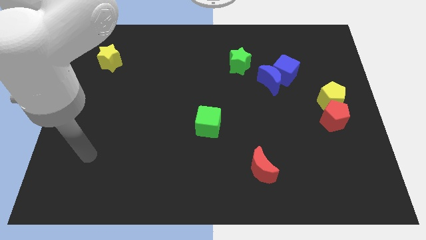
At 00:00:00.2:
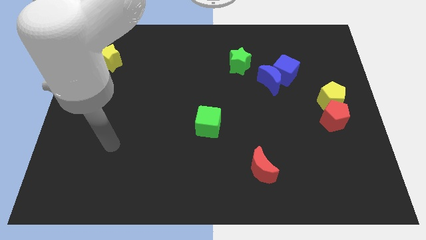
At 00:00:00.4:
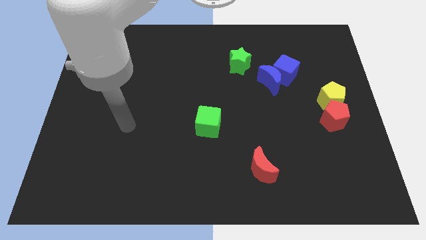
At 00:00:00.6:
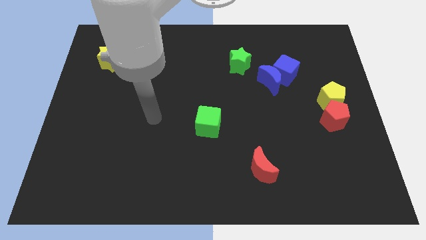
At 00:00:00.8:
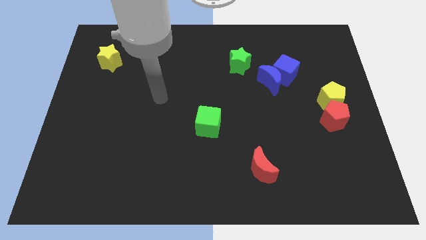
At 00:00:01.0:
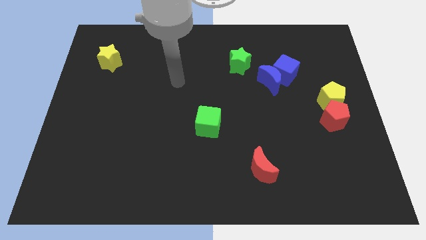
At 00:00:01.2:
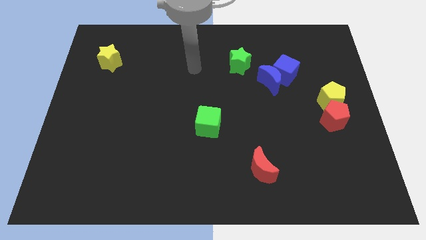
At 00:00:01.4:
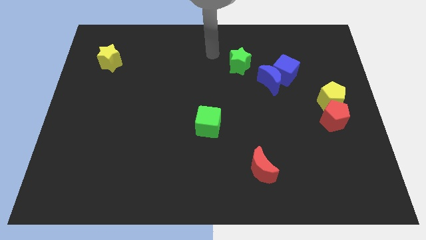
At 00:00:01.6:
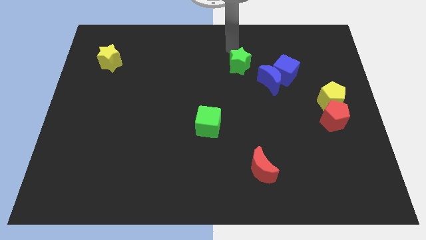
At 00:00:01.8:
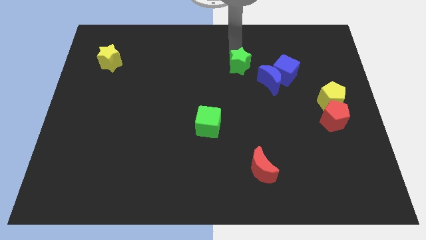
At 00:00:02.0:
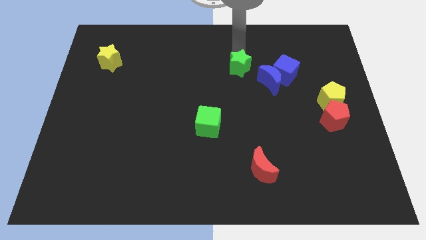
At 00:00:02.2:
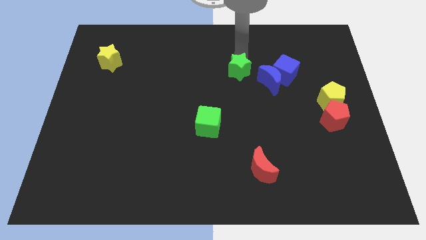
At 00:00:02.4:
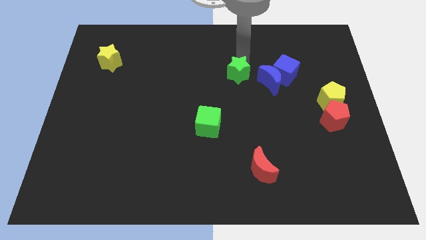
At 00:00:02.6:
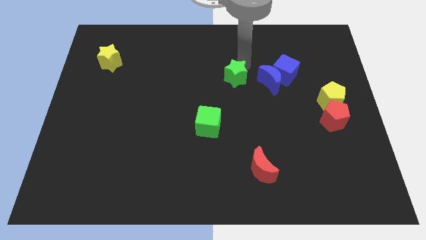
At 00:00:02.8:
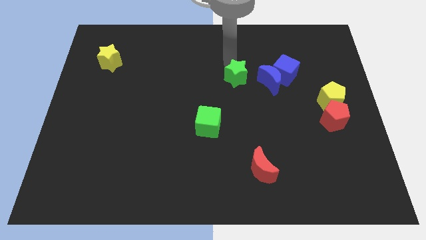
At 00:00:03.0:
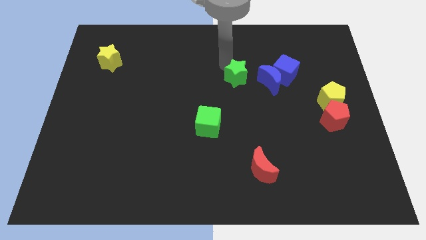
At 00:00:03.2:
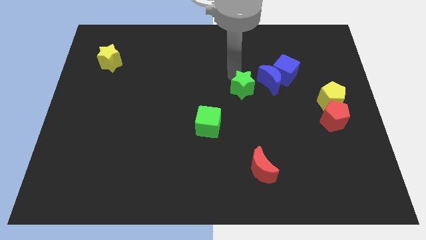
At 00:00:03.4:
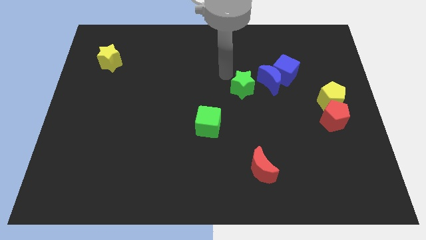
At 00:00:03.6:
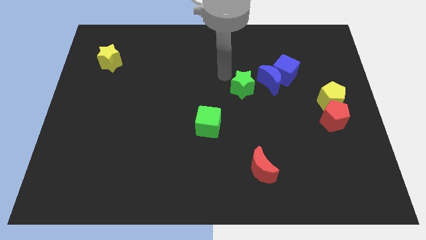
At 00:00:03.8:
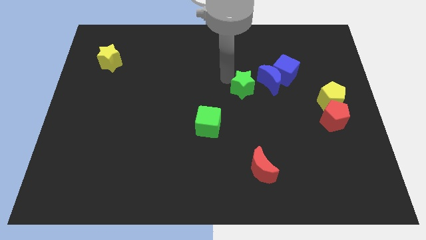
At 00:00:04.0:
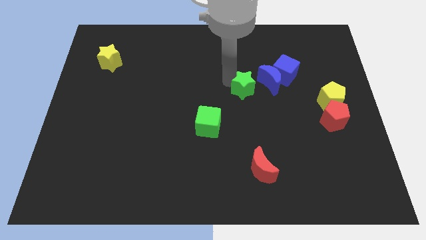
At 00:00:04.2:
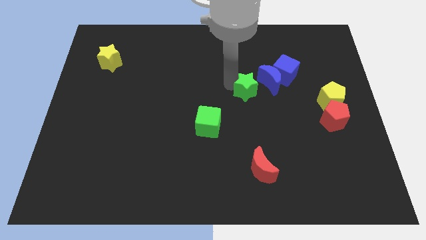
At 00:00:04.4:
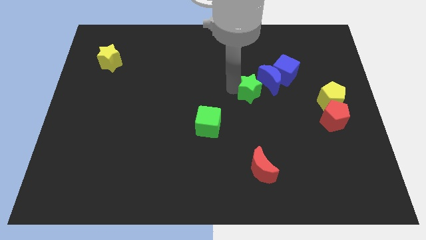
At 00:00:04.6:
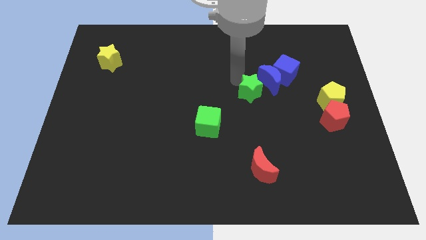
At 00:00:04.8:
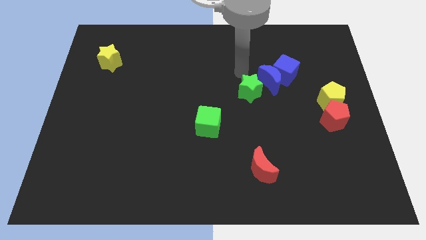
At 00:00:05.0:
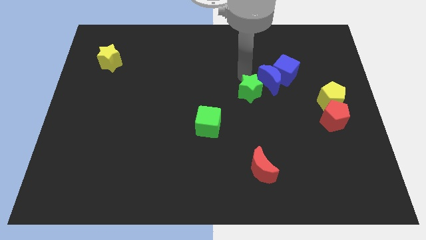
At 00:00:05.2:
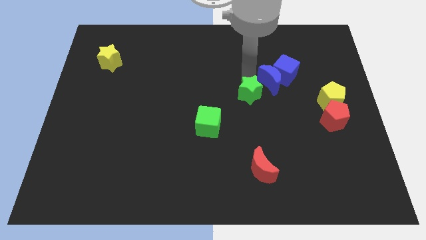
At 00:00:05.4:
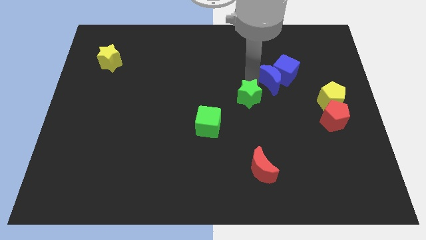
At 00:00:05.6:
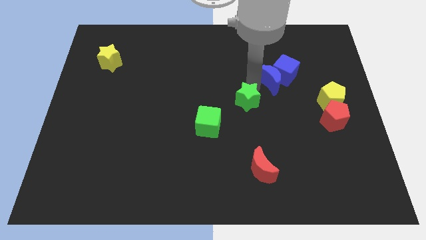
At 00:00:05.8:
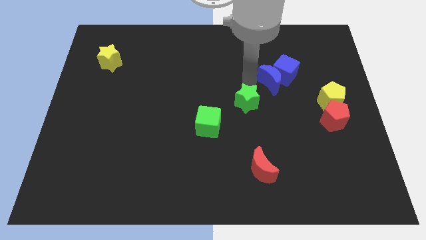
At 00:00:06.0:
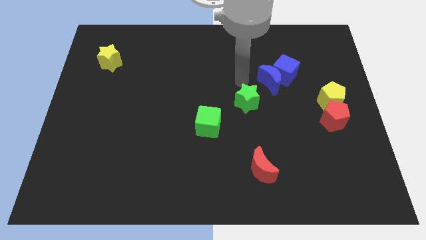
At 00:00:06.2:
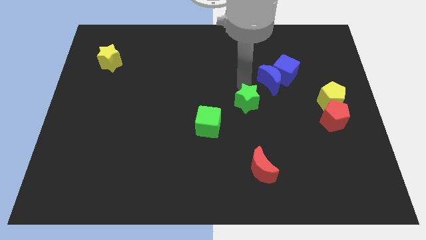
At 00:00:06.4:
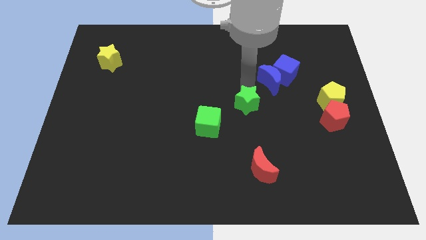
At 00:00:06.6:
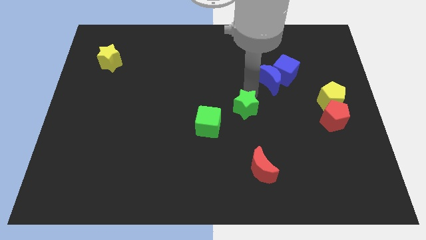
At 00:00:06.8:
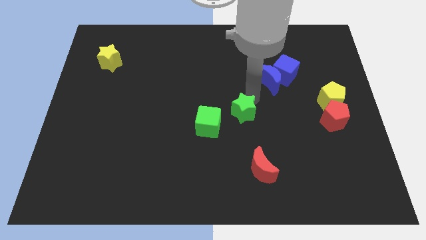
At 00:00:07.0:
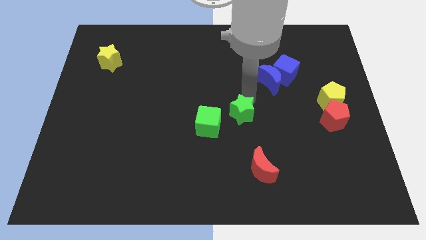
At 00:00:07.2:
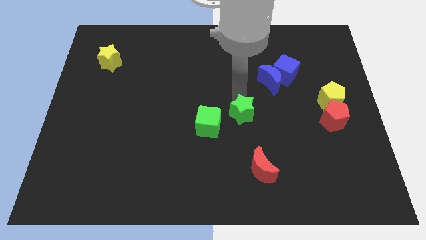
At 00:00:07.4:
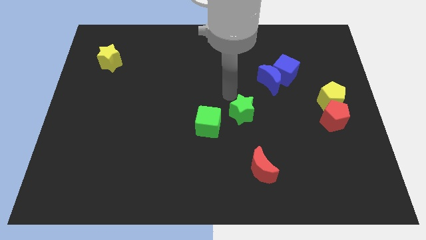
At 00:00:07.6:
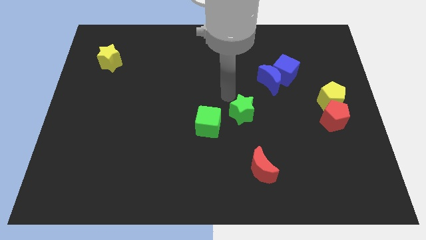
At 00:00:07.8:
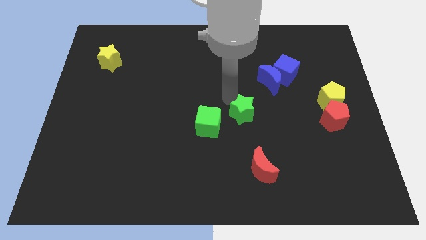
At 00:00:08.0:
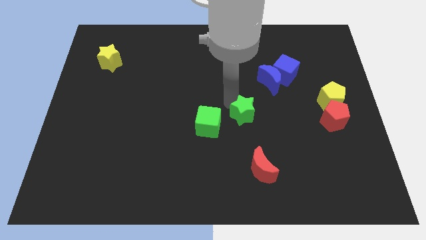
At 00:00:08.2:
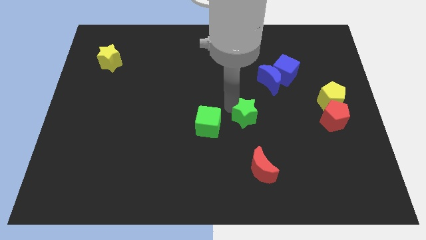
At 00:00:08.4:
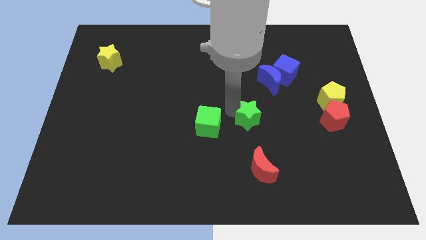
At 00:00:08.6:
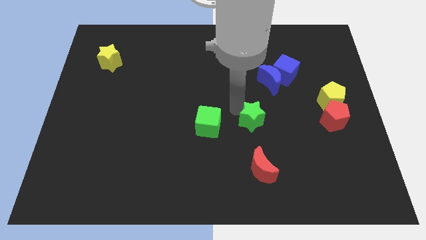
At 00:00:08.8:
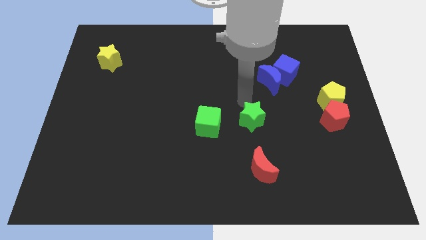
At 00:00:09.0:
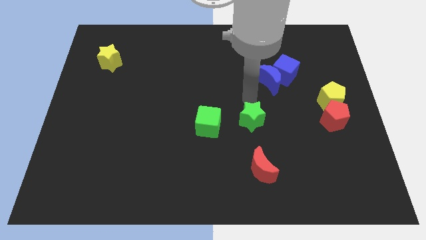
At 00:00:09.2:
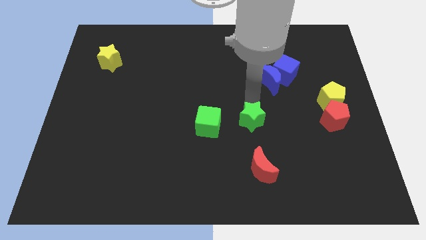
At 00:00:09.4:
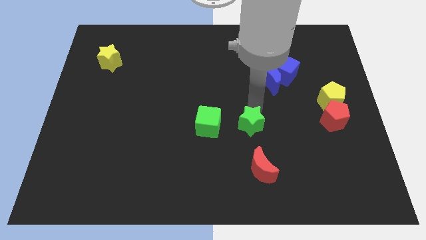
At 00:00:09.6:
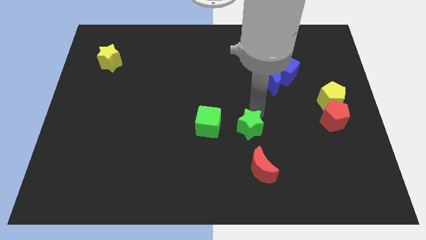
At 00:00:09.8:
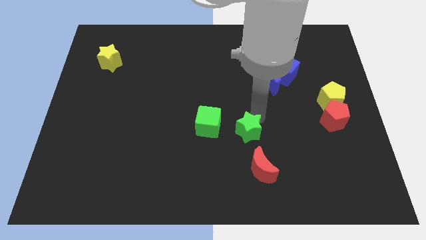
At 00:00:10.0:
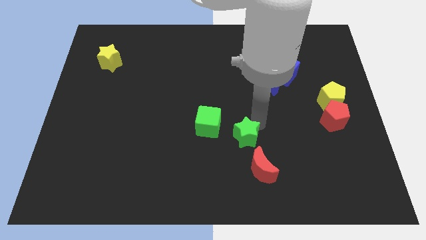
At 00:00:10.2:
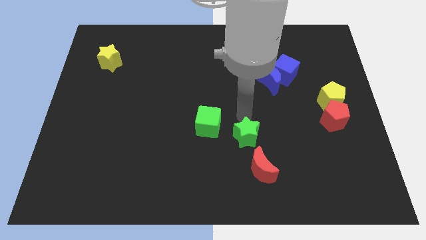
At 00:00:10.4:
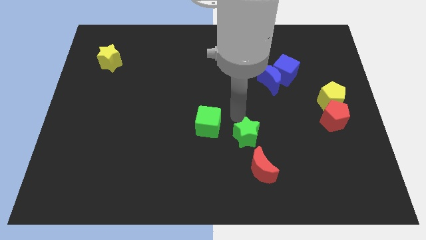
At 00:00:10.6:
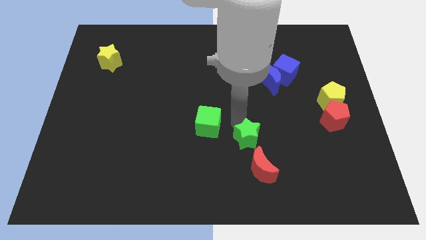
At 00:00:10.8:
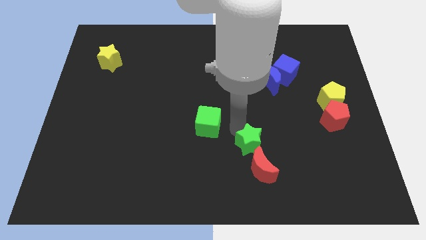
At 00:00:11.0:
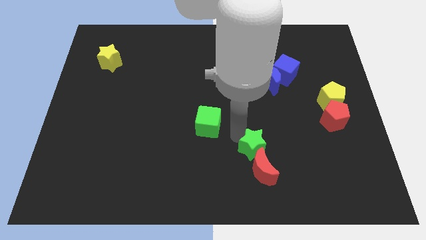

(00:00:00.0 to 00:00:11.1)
put the green star close to the red moon

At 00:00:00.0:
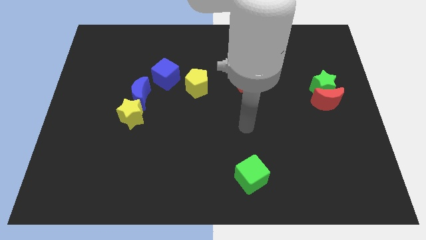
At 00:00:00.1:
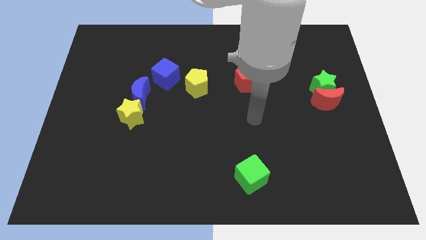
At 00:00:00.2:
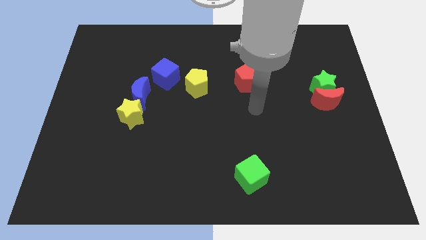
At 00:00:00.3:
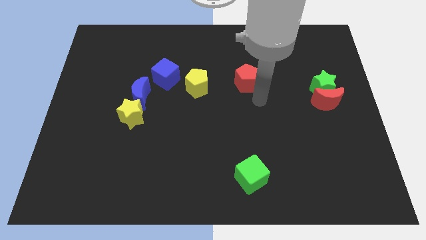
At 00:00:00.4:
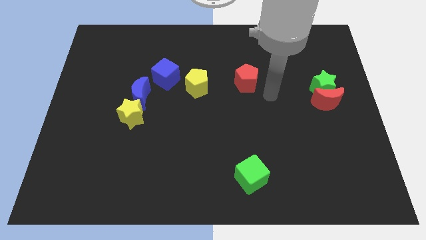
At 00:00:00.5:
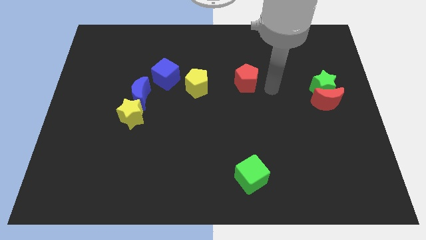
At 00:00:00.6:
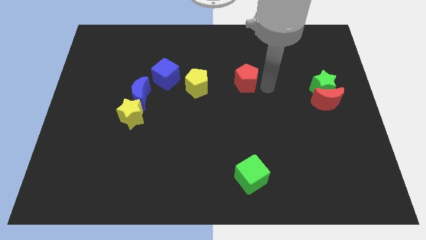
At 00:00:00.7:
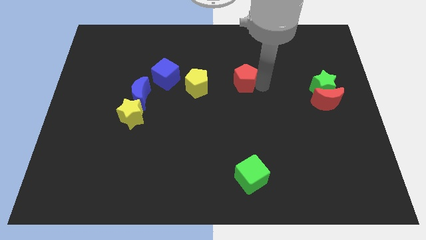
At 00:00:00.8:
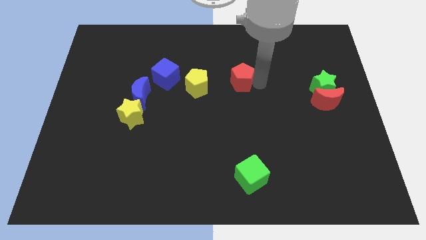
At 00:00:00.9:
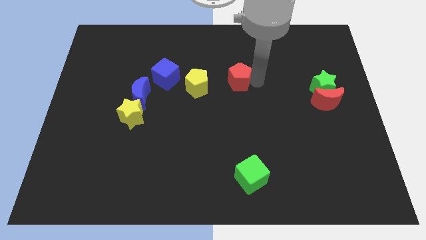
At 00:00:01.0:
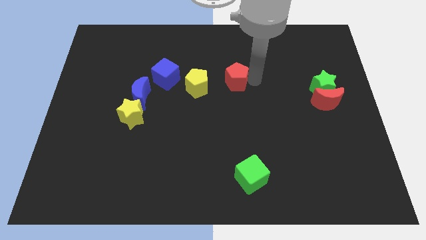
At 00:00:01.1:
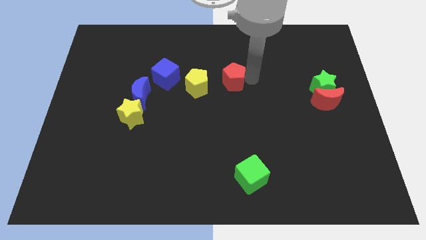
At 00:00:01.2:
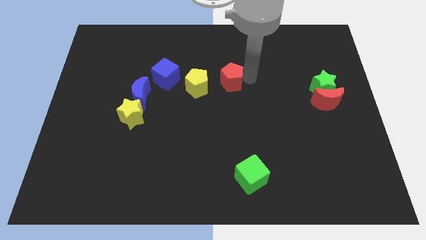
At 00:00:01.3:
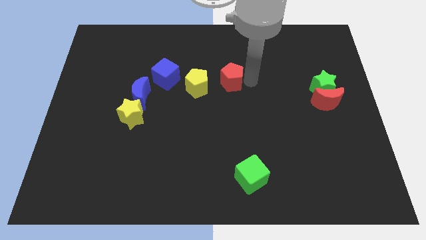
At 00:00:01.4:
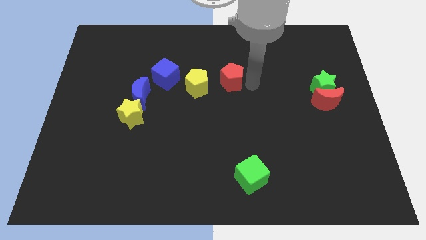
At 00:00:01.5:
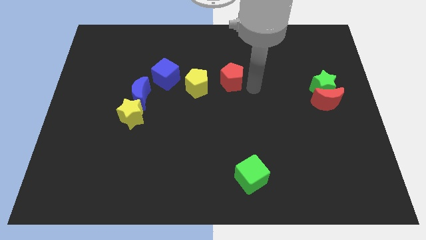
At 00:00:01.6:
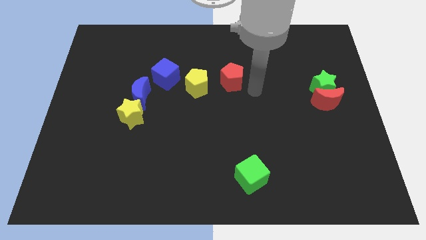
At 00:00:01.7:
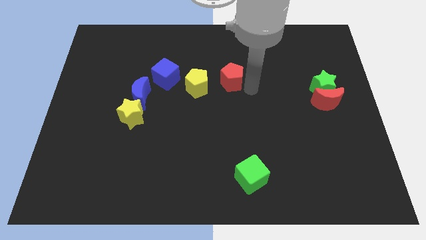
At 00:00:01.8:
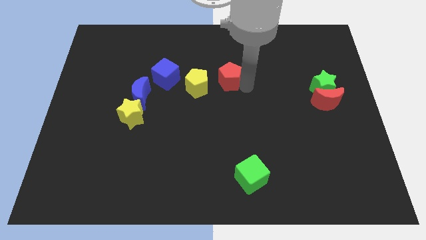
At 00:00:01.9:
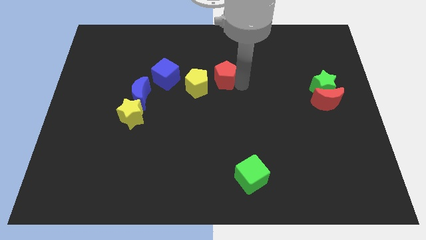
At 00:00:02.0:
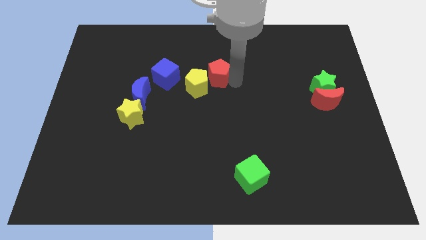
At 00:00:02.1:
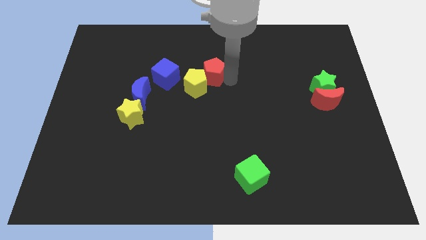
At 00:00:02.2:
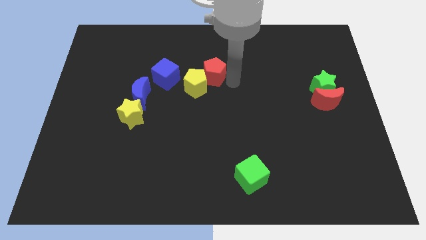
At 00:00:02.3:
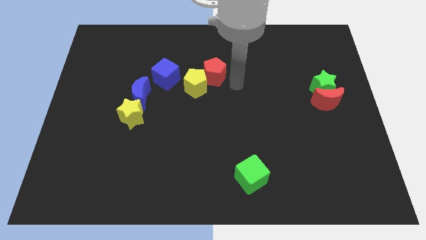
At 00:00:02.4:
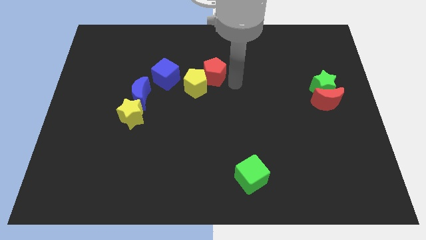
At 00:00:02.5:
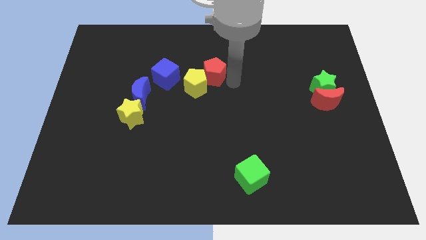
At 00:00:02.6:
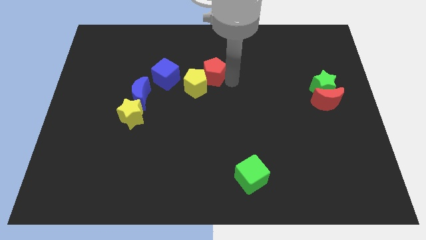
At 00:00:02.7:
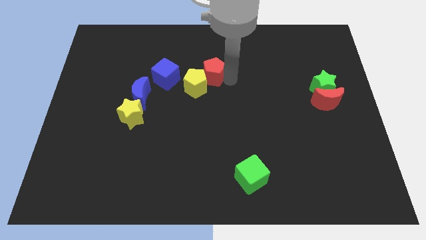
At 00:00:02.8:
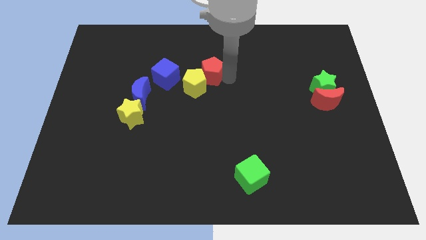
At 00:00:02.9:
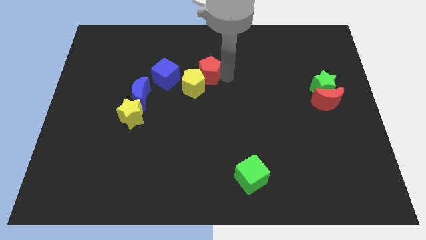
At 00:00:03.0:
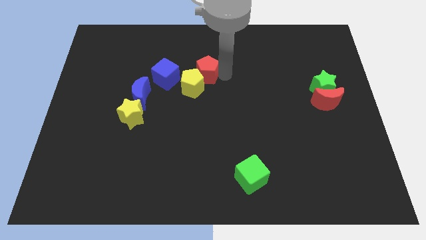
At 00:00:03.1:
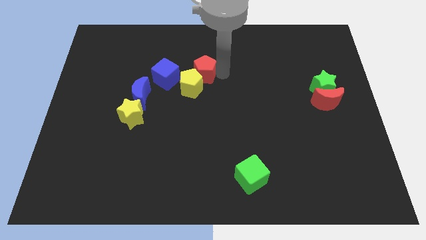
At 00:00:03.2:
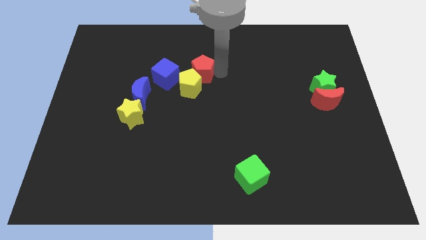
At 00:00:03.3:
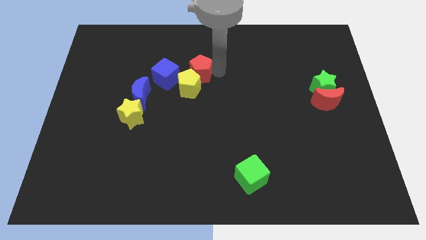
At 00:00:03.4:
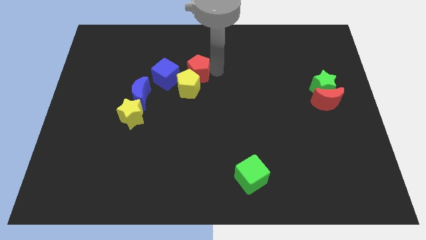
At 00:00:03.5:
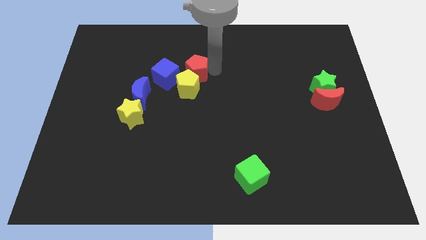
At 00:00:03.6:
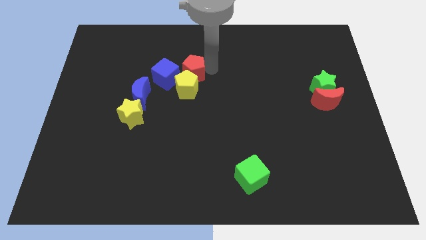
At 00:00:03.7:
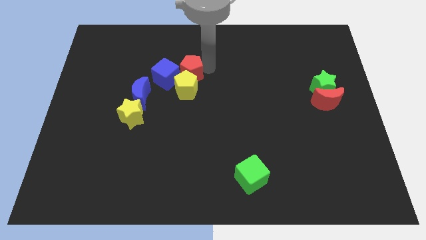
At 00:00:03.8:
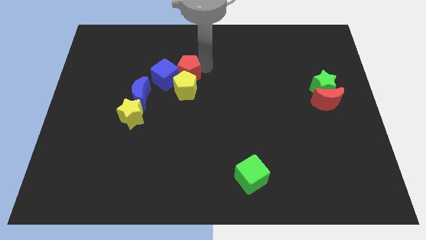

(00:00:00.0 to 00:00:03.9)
move the red pentagon next to the blue cube
